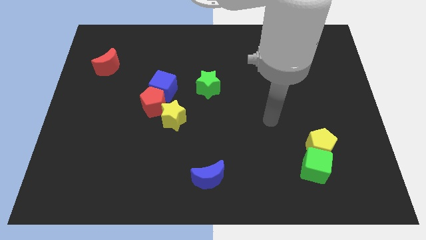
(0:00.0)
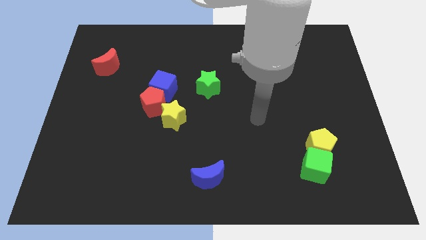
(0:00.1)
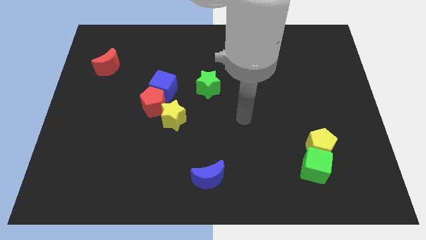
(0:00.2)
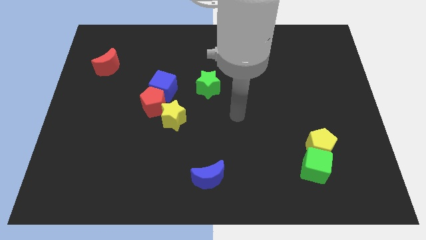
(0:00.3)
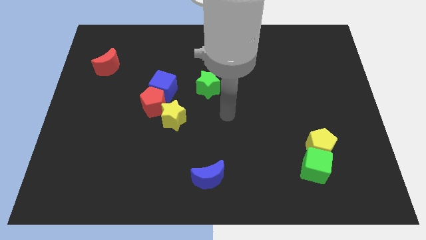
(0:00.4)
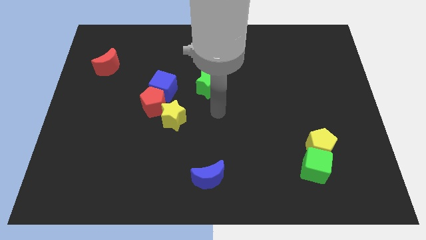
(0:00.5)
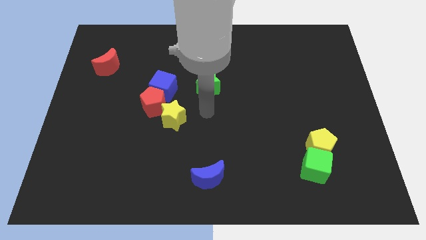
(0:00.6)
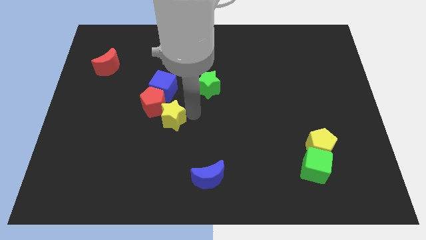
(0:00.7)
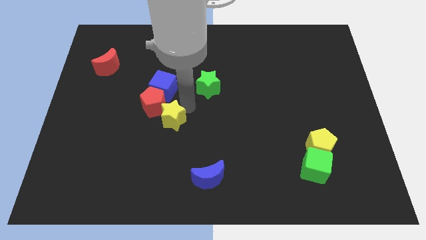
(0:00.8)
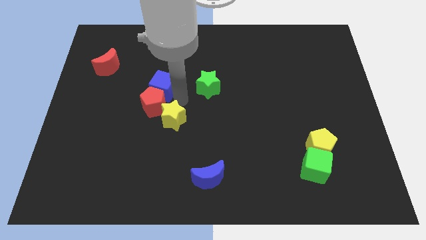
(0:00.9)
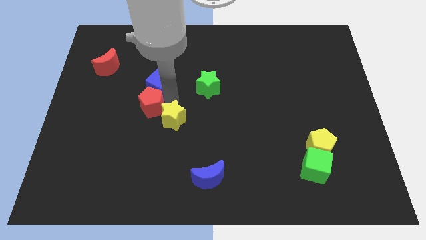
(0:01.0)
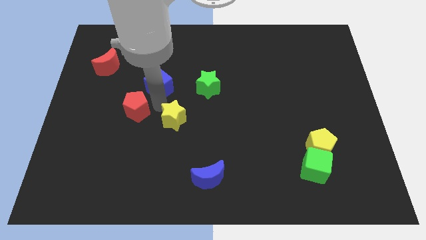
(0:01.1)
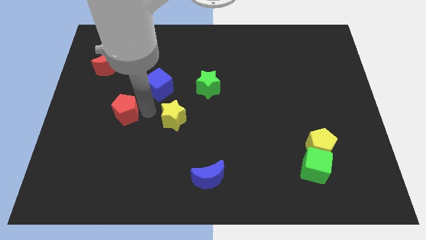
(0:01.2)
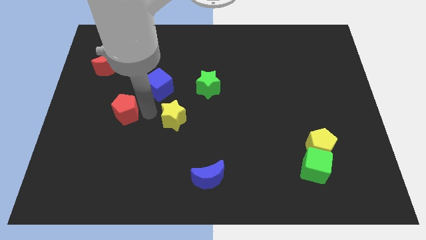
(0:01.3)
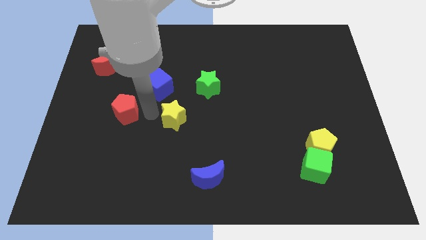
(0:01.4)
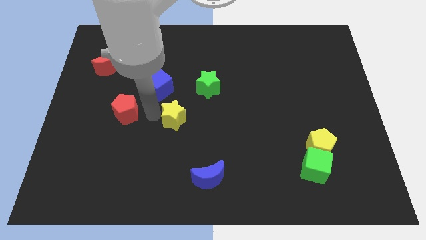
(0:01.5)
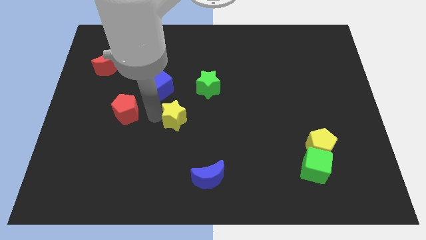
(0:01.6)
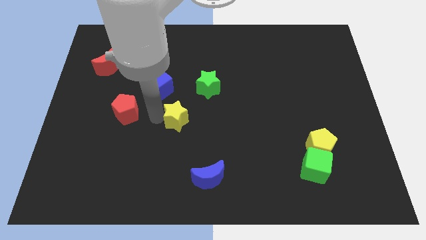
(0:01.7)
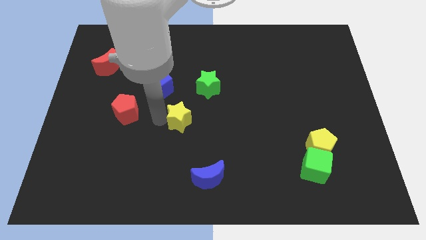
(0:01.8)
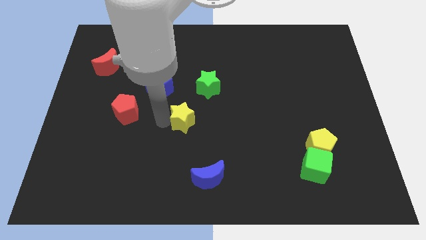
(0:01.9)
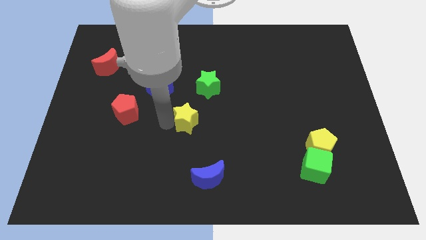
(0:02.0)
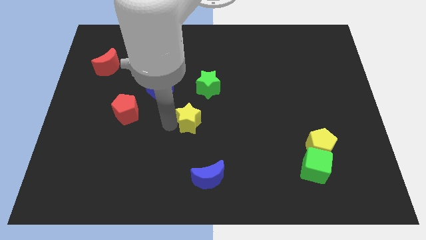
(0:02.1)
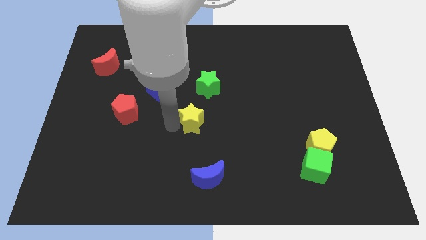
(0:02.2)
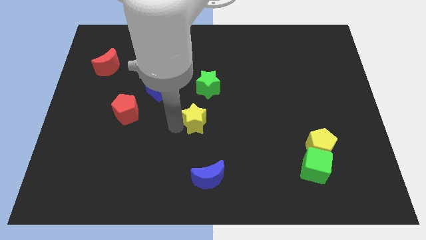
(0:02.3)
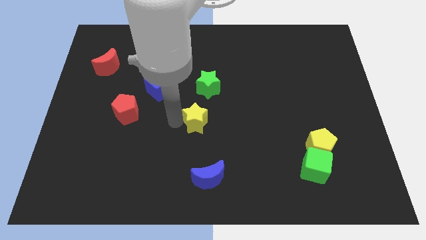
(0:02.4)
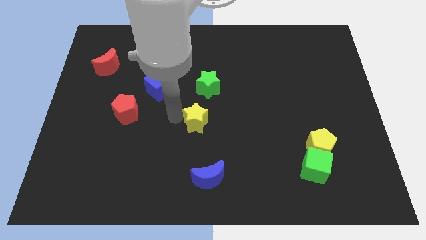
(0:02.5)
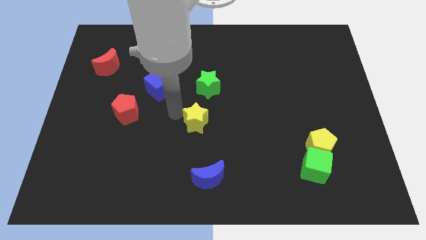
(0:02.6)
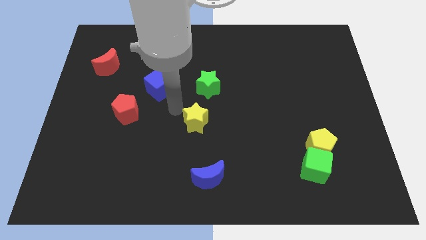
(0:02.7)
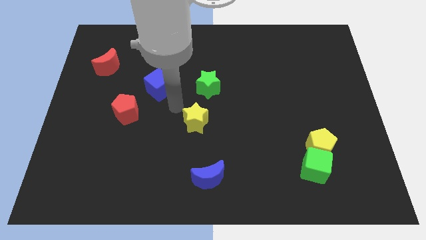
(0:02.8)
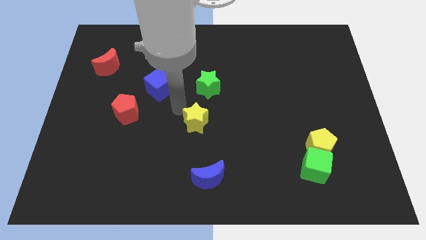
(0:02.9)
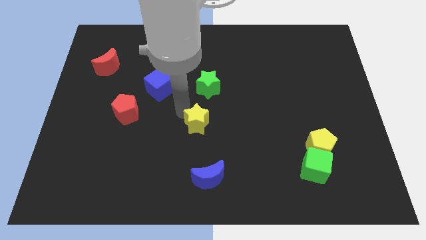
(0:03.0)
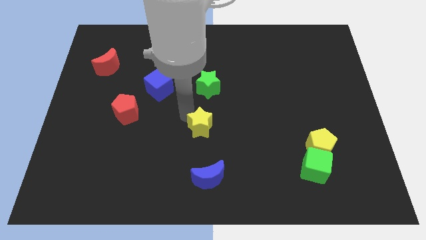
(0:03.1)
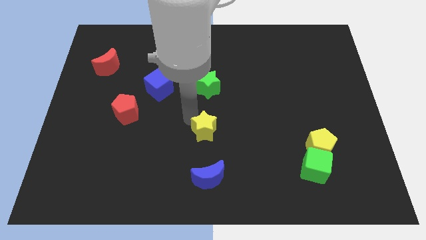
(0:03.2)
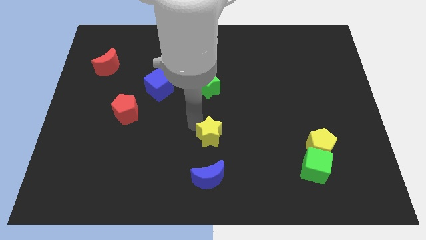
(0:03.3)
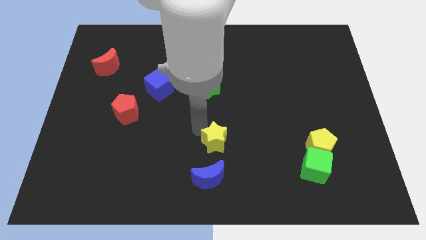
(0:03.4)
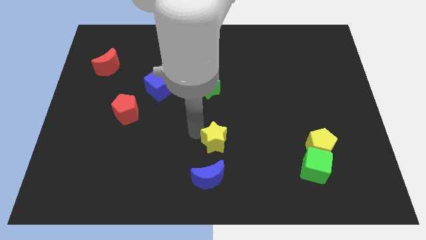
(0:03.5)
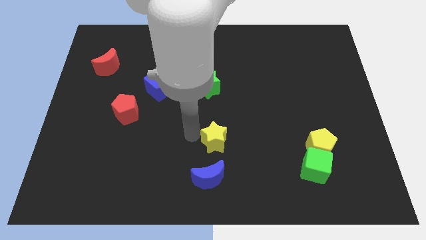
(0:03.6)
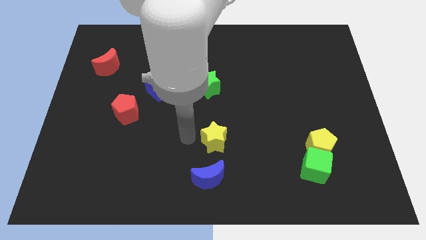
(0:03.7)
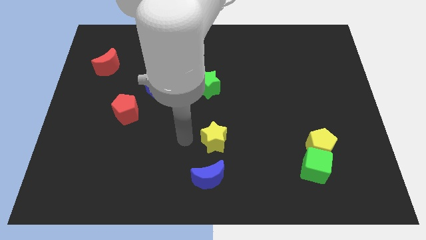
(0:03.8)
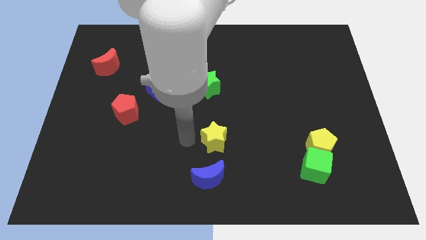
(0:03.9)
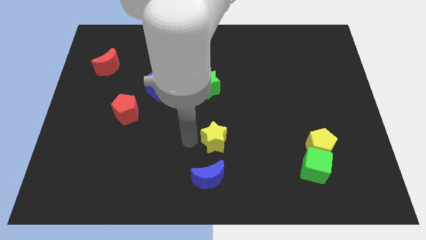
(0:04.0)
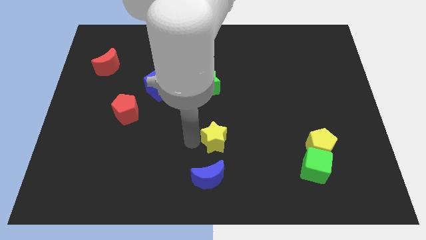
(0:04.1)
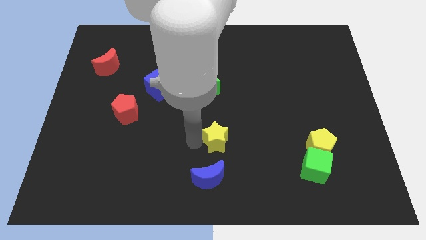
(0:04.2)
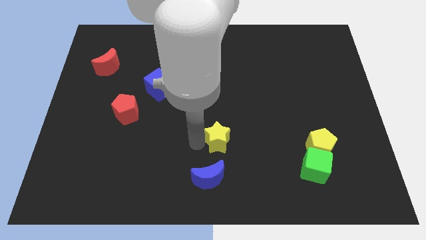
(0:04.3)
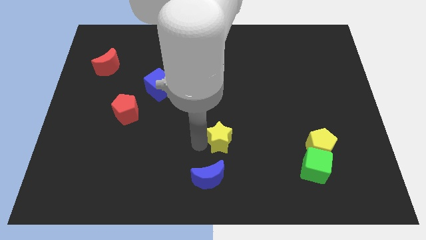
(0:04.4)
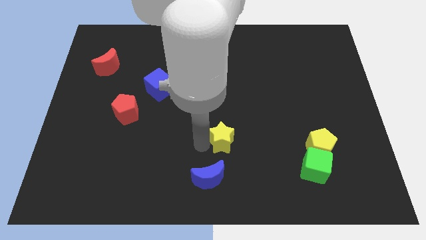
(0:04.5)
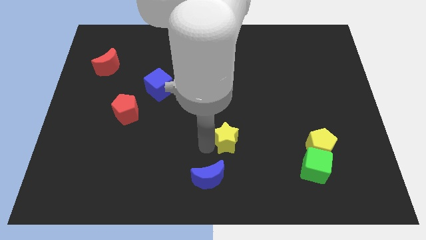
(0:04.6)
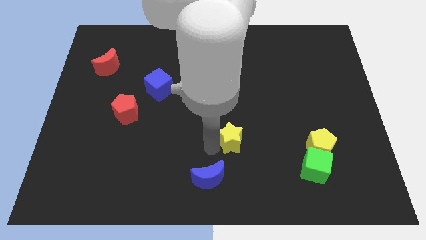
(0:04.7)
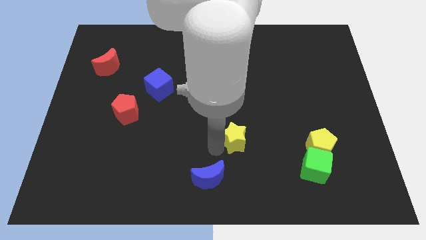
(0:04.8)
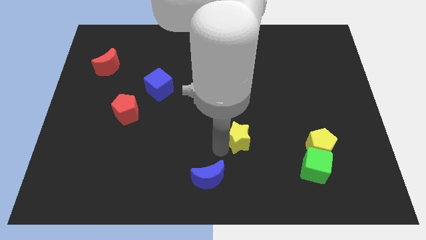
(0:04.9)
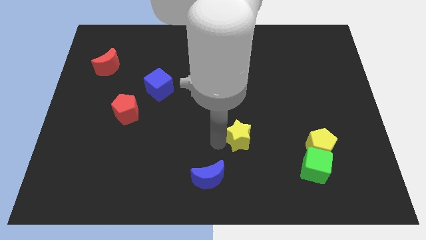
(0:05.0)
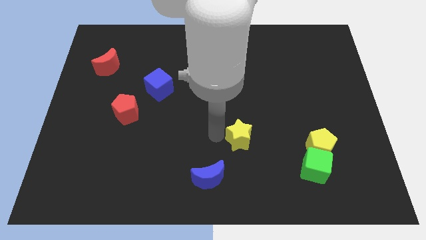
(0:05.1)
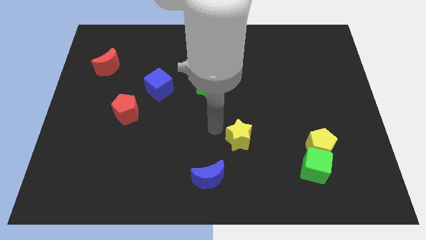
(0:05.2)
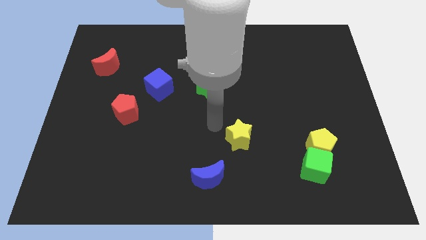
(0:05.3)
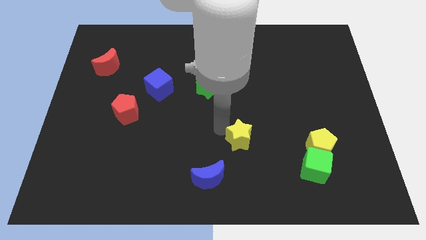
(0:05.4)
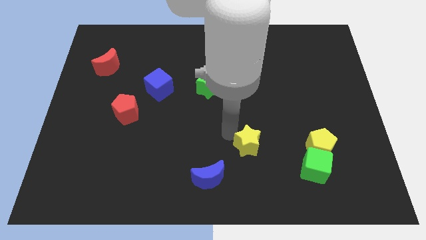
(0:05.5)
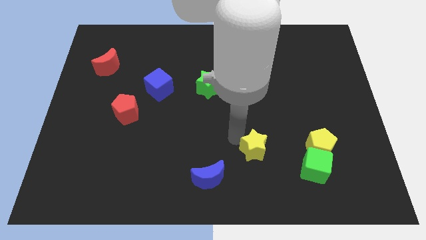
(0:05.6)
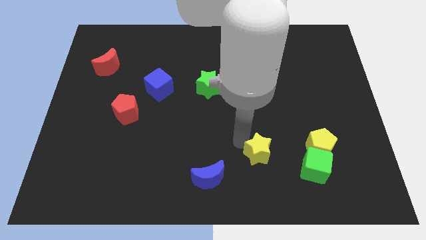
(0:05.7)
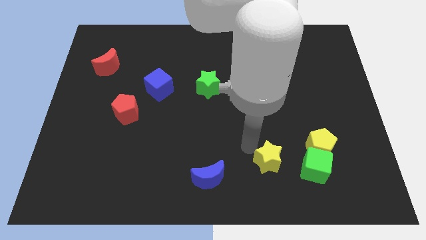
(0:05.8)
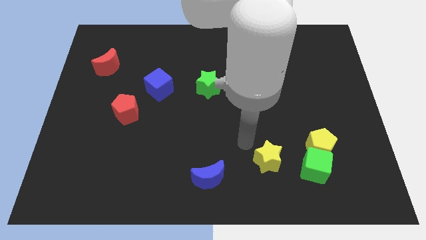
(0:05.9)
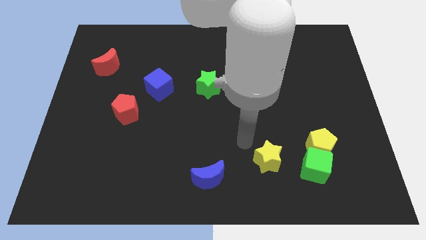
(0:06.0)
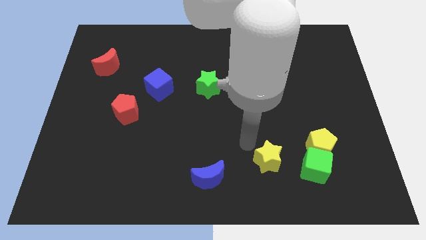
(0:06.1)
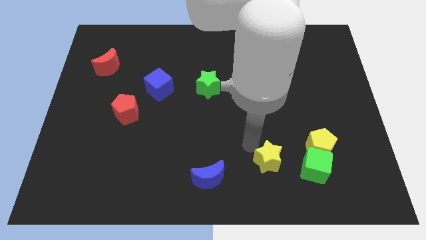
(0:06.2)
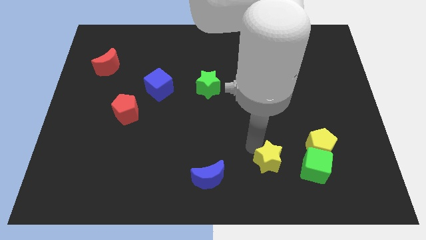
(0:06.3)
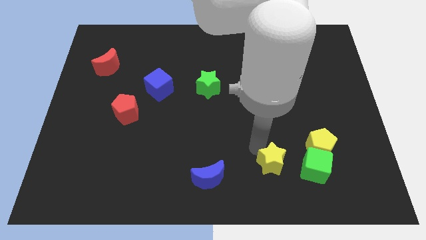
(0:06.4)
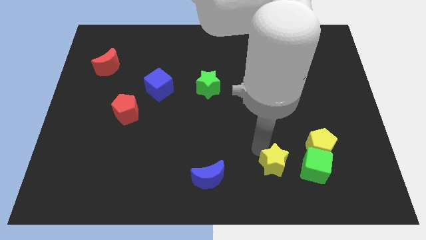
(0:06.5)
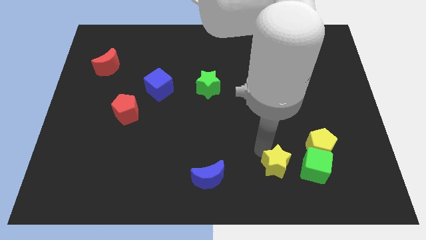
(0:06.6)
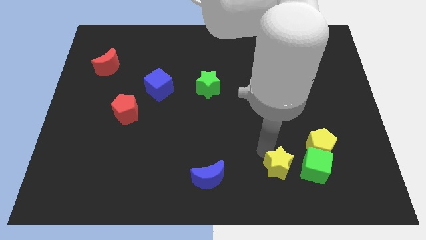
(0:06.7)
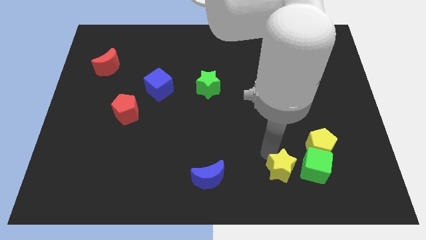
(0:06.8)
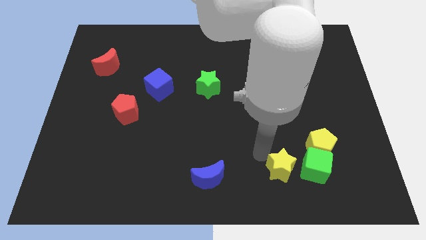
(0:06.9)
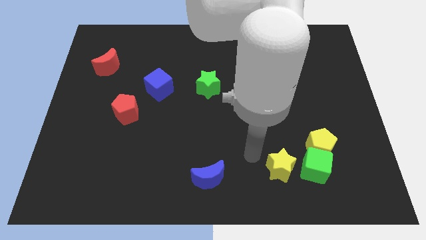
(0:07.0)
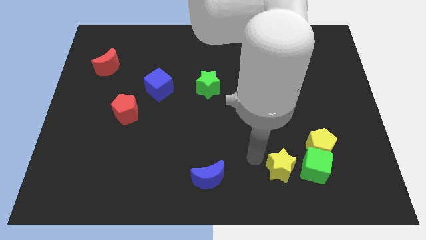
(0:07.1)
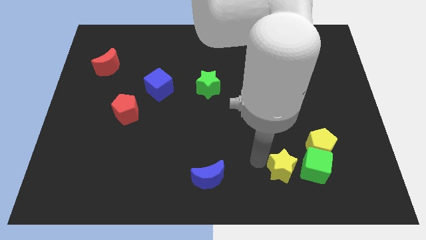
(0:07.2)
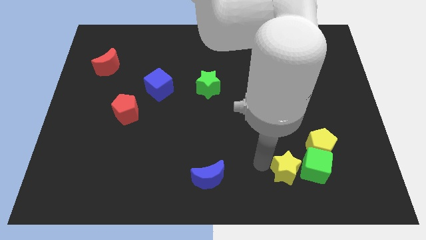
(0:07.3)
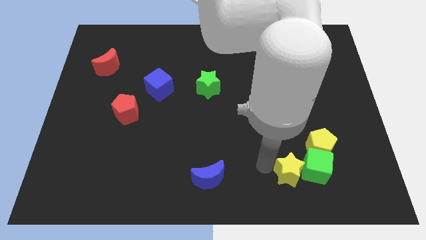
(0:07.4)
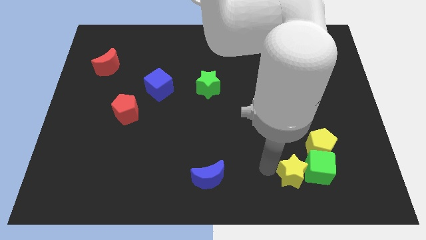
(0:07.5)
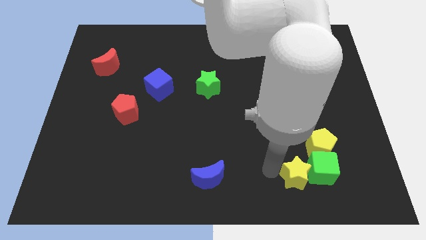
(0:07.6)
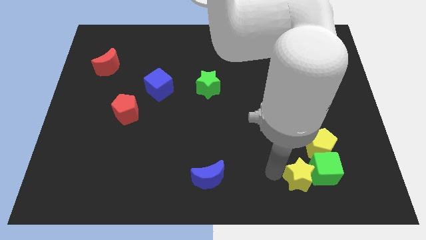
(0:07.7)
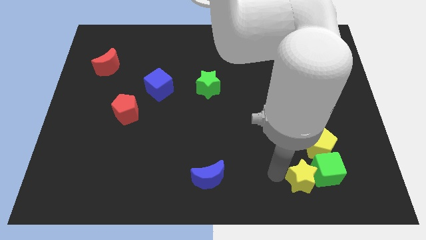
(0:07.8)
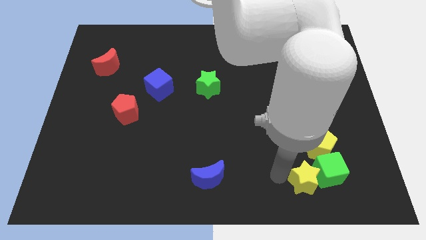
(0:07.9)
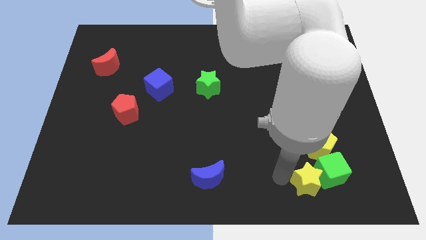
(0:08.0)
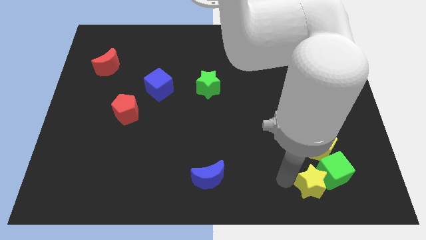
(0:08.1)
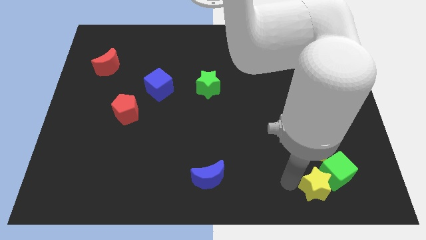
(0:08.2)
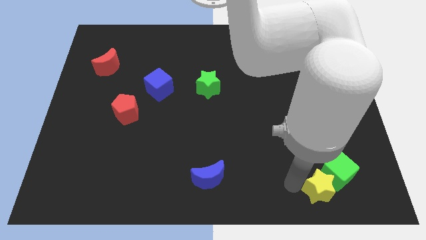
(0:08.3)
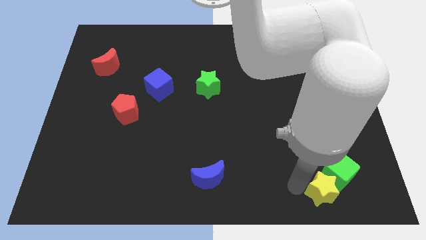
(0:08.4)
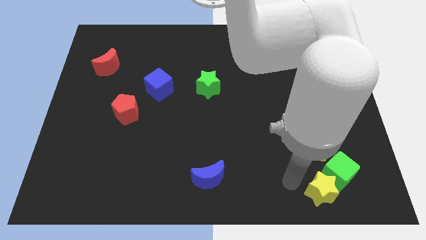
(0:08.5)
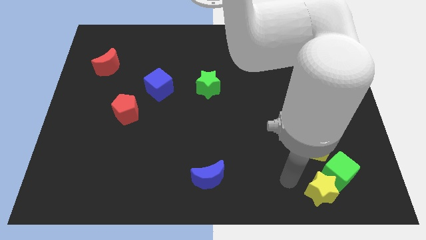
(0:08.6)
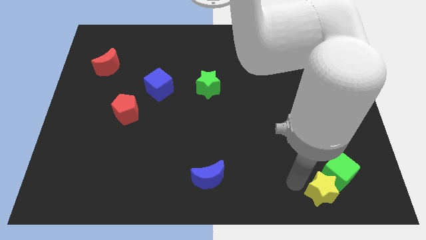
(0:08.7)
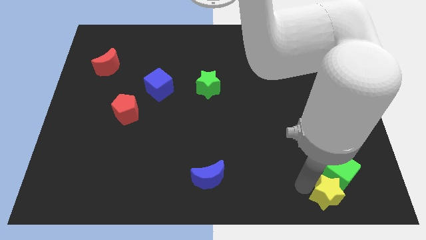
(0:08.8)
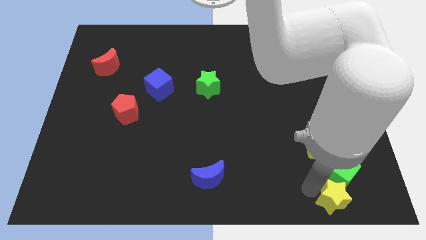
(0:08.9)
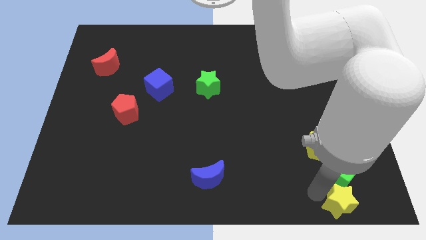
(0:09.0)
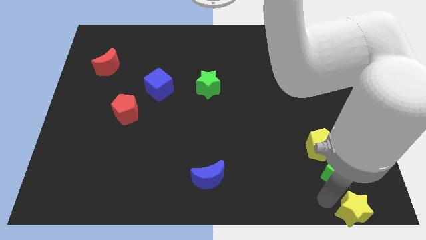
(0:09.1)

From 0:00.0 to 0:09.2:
slide the yellow star to the lower right corner
